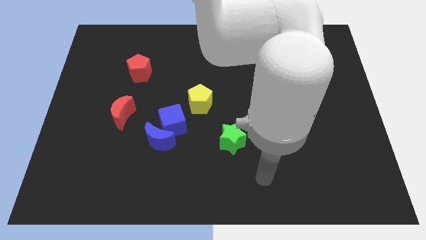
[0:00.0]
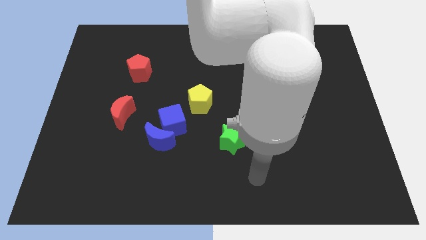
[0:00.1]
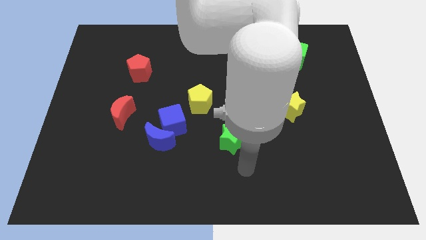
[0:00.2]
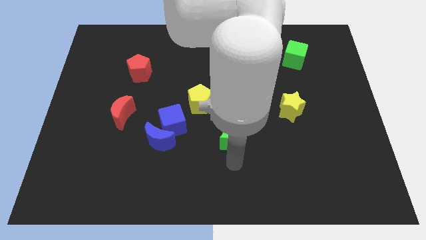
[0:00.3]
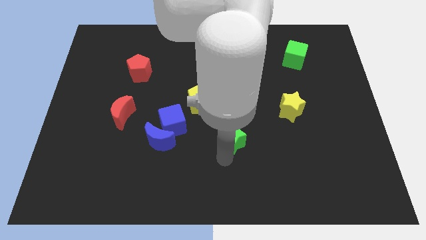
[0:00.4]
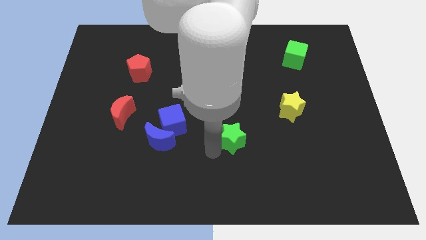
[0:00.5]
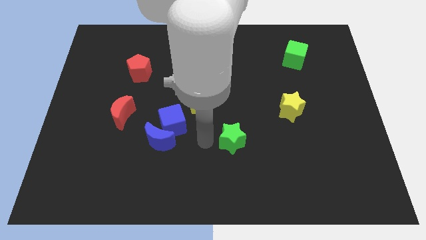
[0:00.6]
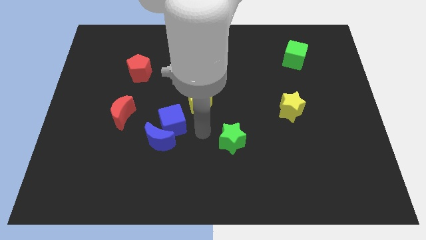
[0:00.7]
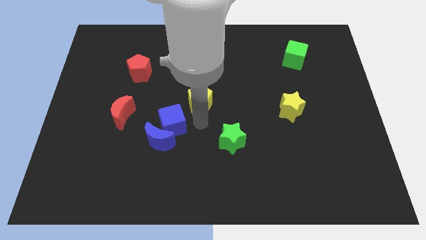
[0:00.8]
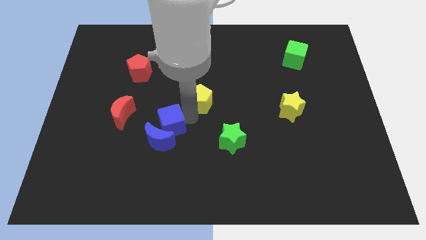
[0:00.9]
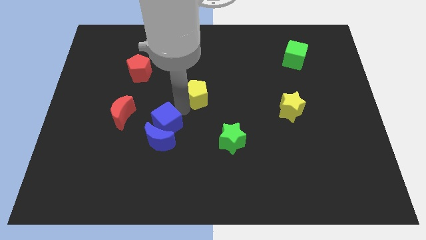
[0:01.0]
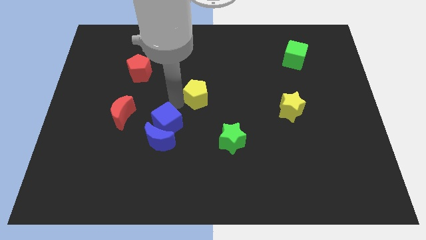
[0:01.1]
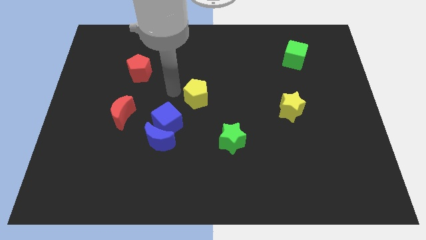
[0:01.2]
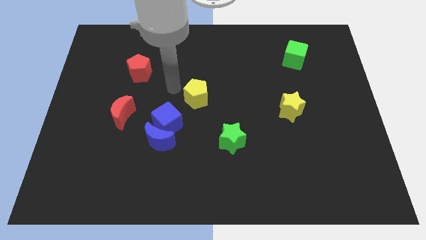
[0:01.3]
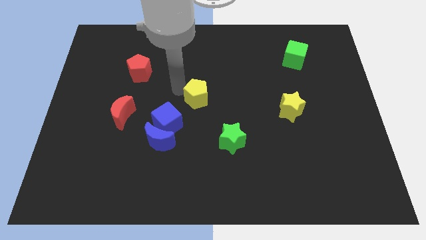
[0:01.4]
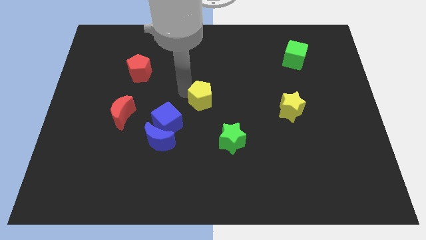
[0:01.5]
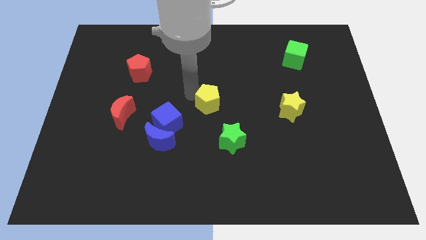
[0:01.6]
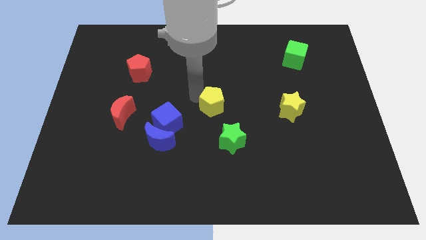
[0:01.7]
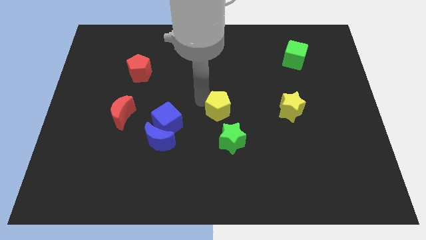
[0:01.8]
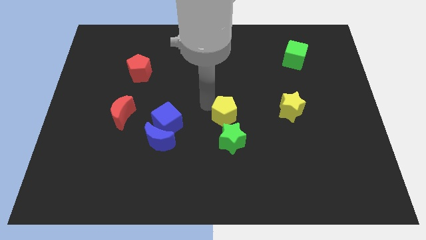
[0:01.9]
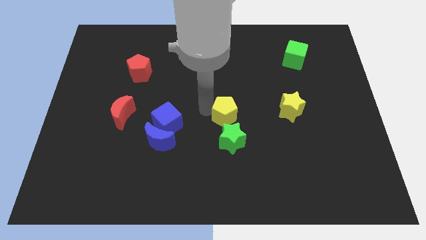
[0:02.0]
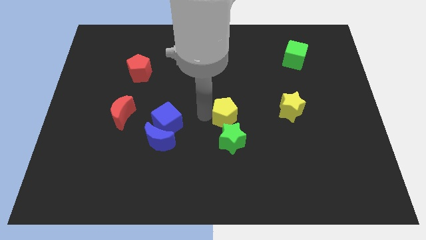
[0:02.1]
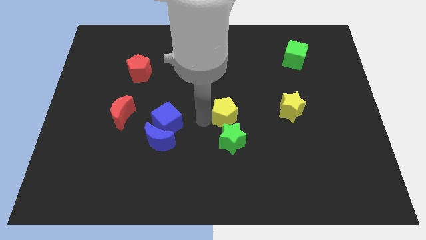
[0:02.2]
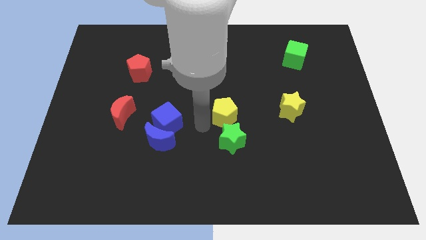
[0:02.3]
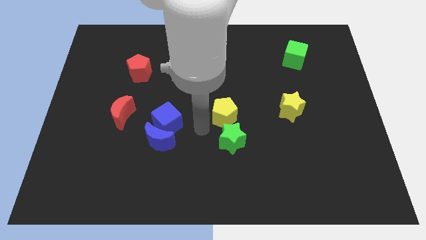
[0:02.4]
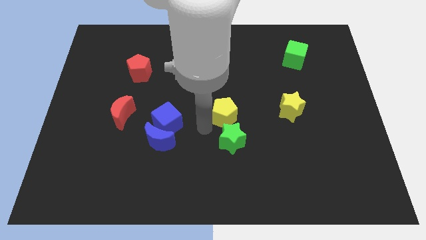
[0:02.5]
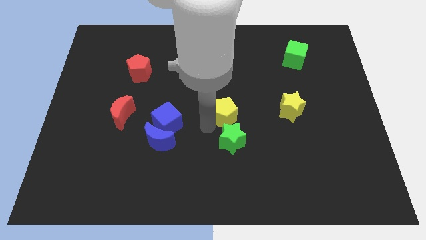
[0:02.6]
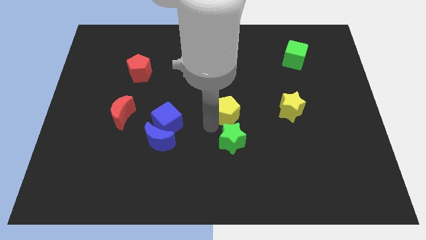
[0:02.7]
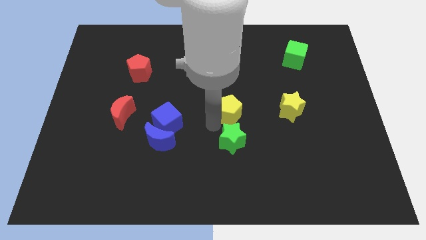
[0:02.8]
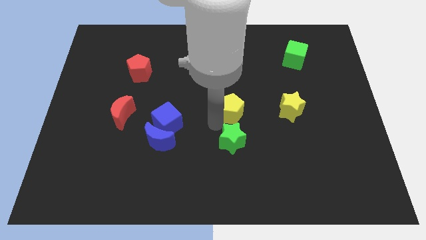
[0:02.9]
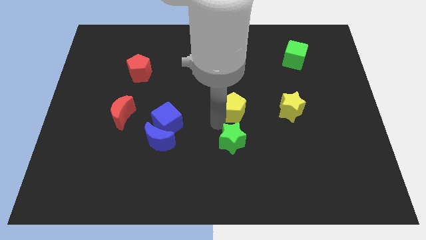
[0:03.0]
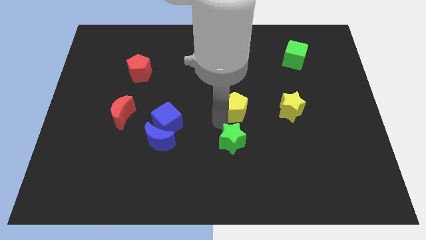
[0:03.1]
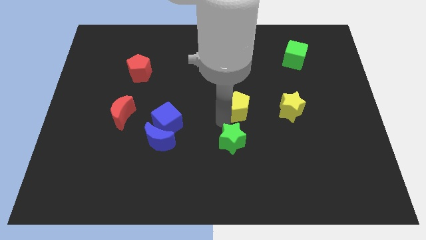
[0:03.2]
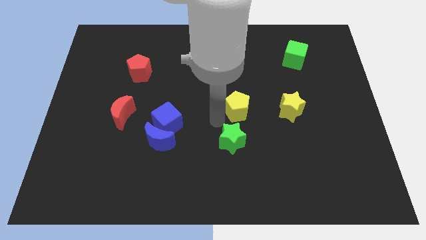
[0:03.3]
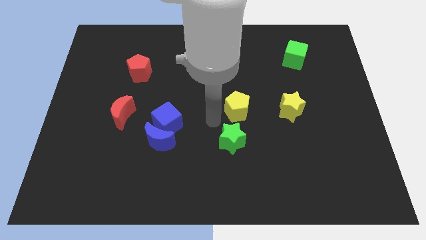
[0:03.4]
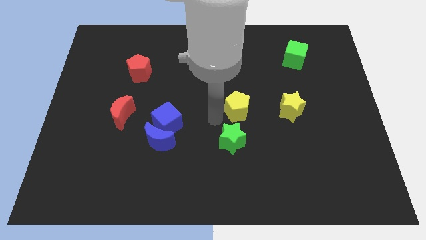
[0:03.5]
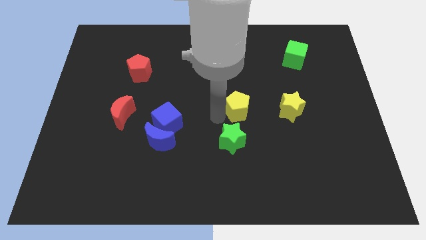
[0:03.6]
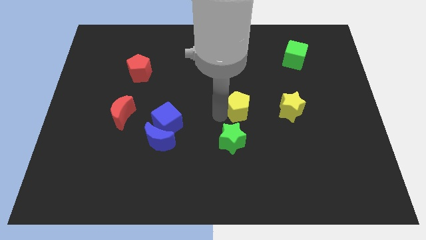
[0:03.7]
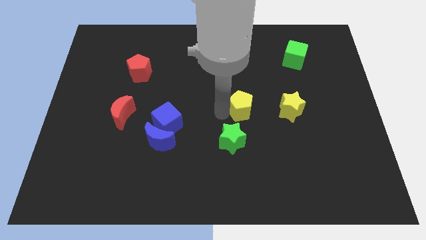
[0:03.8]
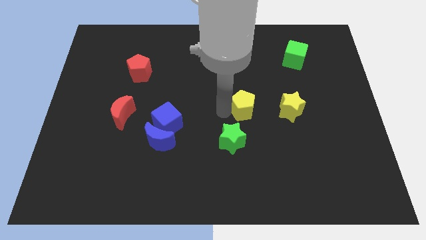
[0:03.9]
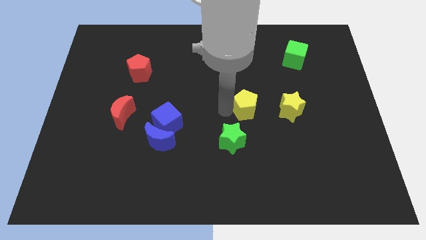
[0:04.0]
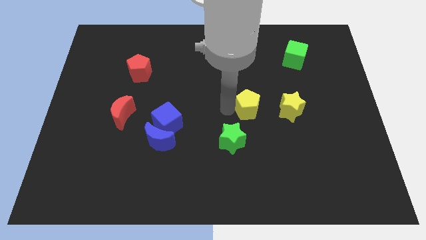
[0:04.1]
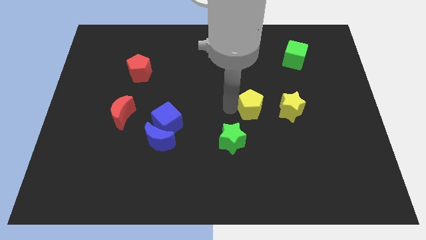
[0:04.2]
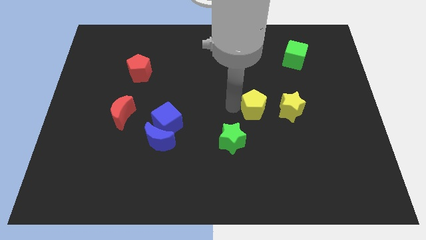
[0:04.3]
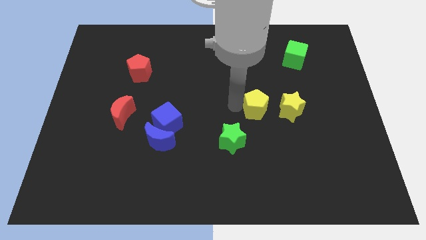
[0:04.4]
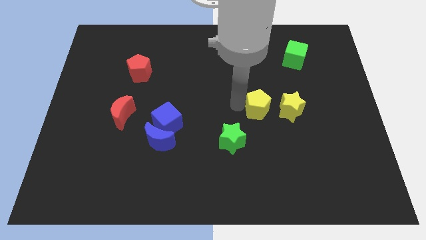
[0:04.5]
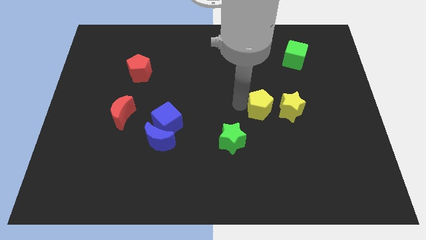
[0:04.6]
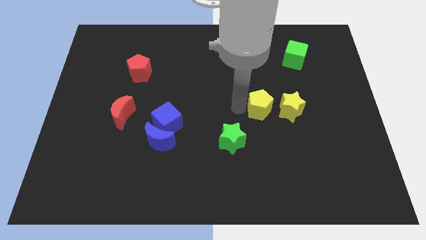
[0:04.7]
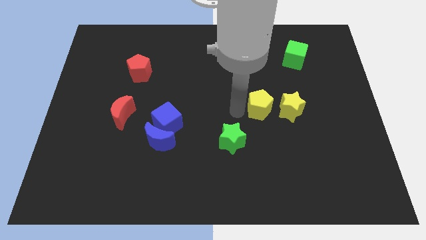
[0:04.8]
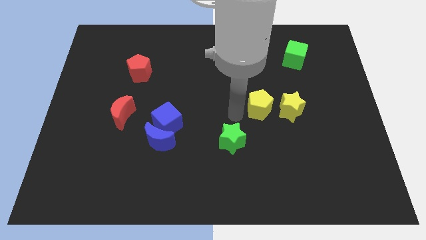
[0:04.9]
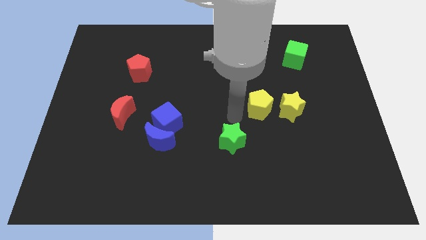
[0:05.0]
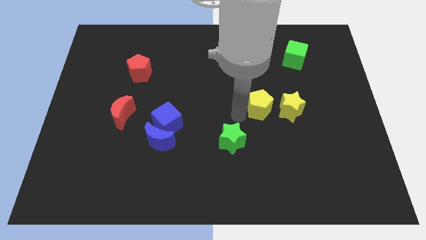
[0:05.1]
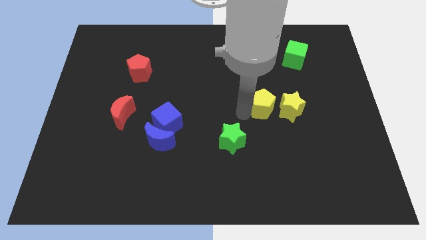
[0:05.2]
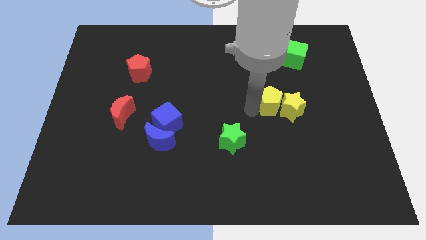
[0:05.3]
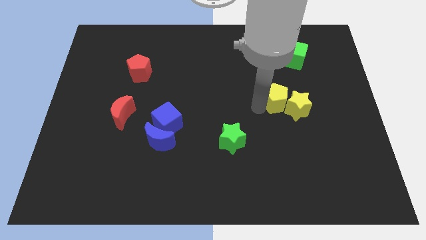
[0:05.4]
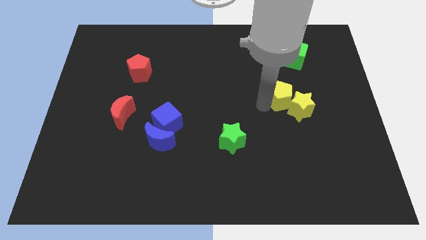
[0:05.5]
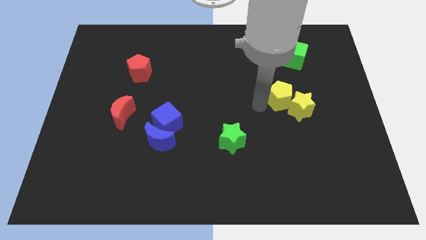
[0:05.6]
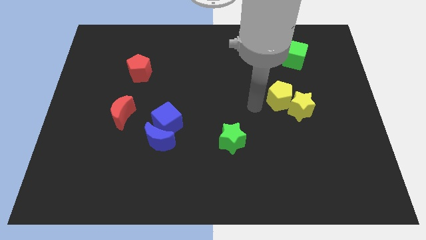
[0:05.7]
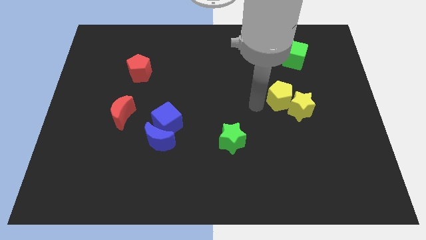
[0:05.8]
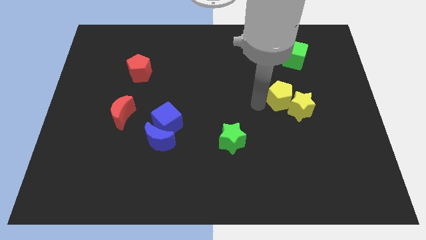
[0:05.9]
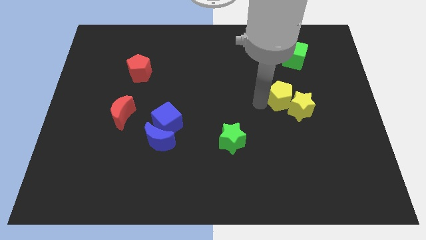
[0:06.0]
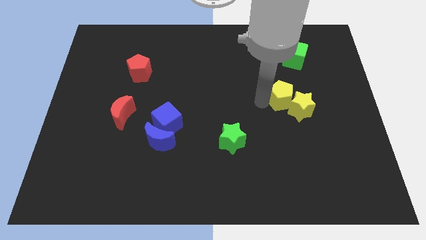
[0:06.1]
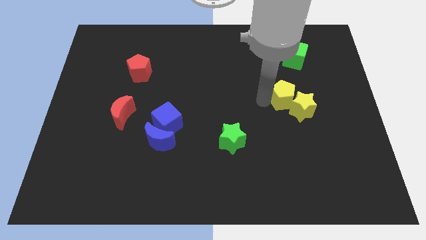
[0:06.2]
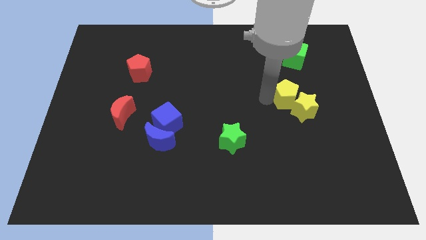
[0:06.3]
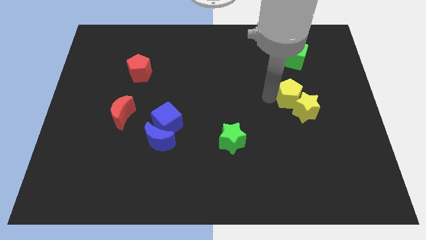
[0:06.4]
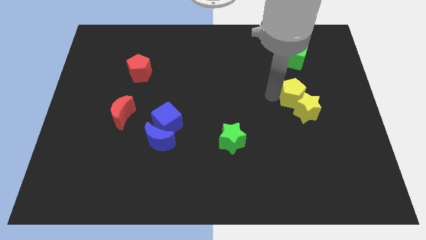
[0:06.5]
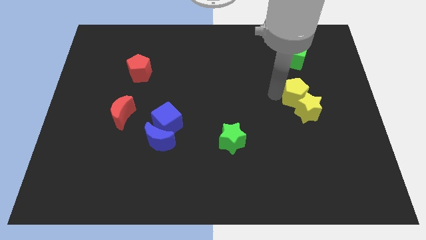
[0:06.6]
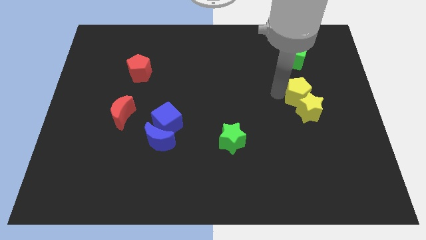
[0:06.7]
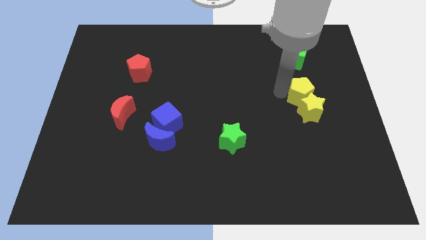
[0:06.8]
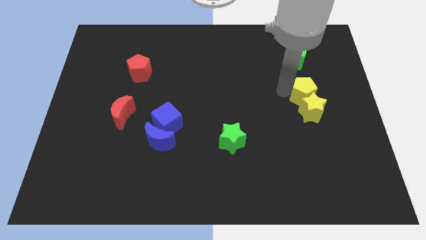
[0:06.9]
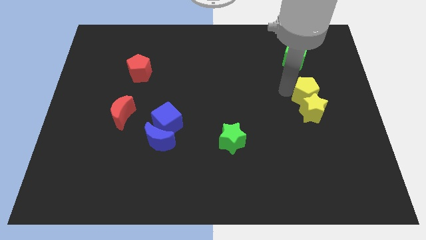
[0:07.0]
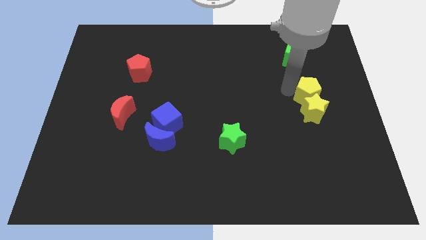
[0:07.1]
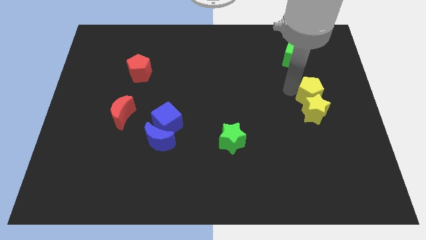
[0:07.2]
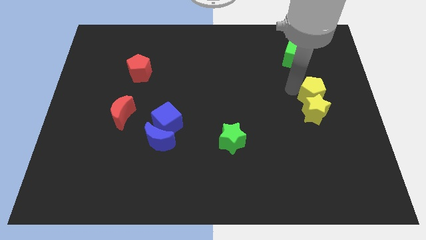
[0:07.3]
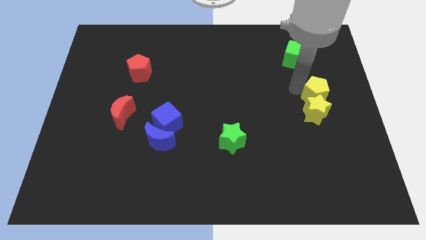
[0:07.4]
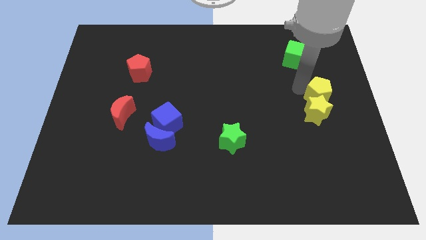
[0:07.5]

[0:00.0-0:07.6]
put the yellow pentagon to the center right
